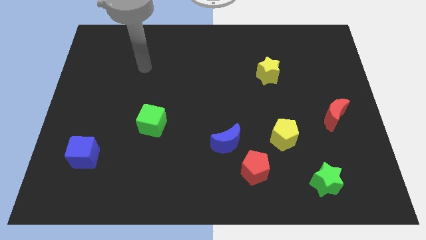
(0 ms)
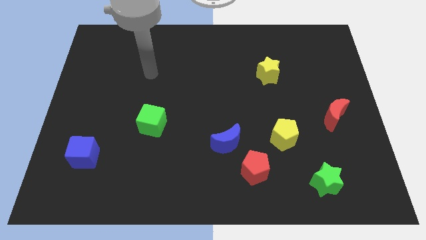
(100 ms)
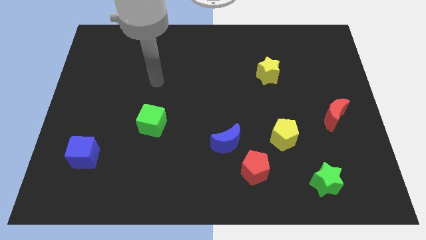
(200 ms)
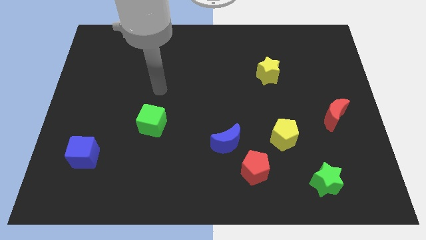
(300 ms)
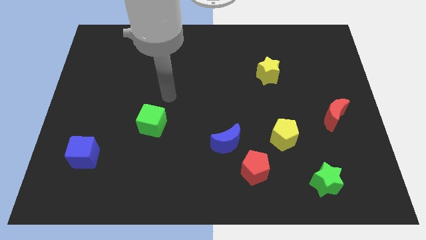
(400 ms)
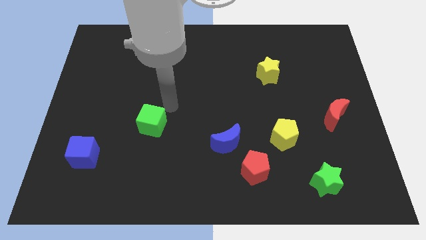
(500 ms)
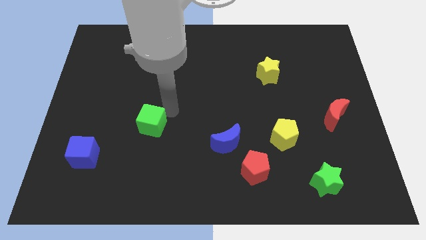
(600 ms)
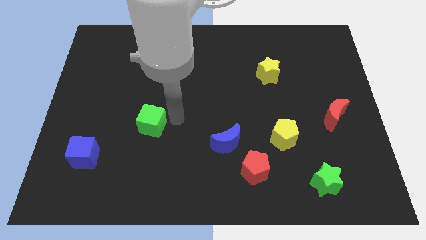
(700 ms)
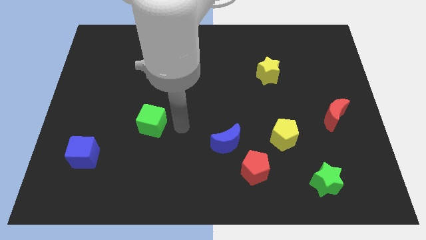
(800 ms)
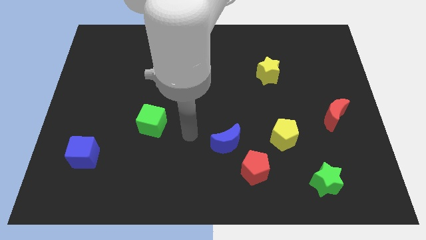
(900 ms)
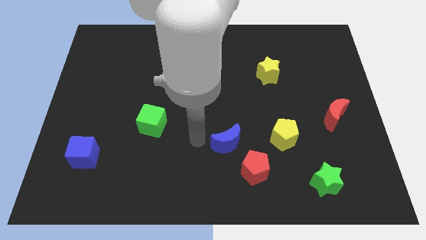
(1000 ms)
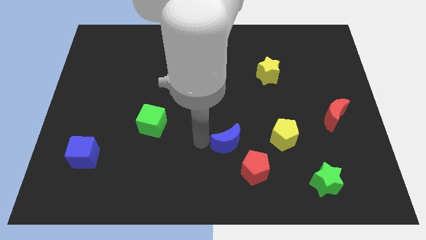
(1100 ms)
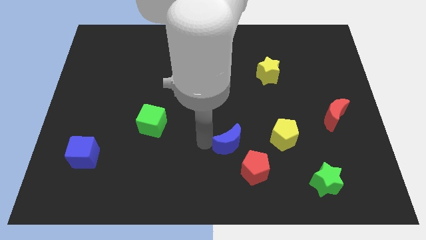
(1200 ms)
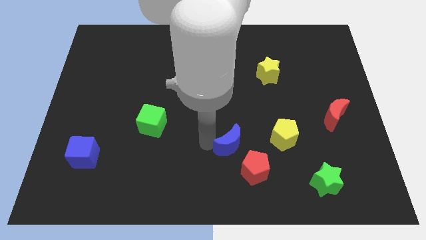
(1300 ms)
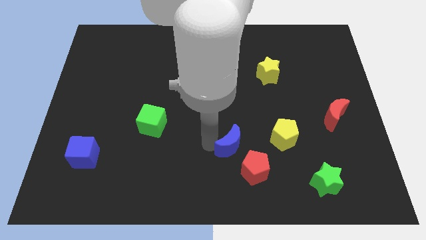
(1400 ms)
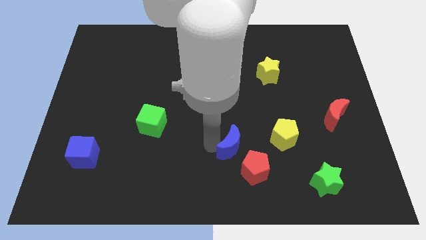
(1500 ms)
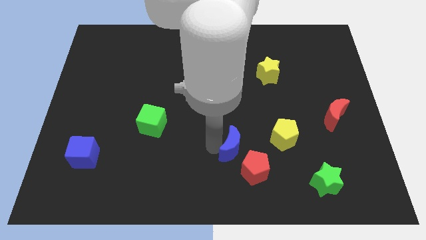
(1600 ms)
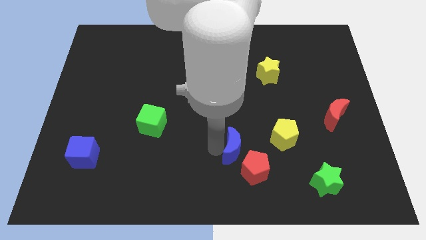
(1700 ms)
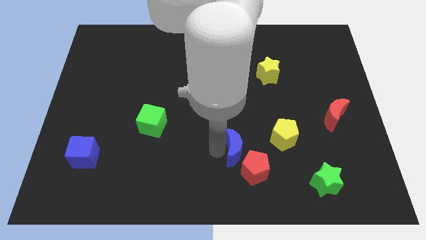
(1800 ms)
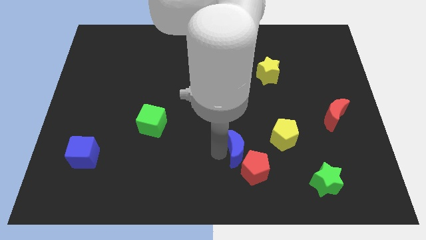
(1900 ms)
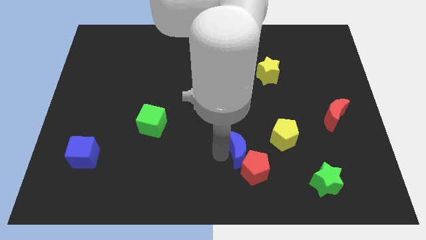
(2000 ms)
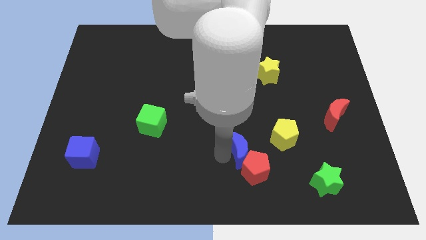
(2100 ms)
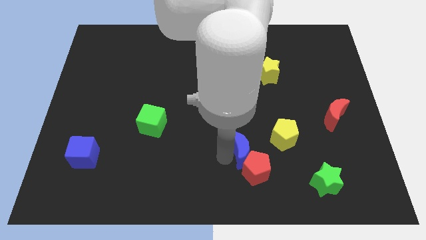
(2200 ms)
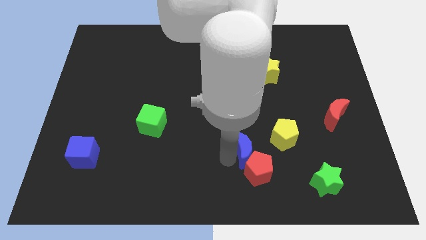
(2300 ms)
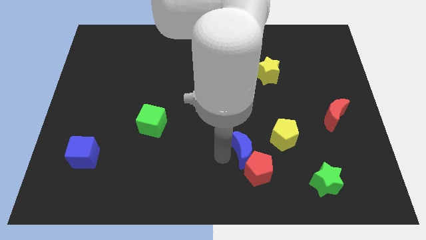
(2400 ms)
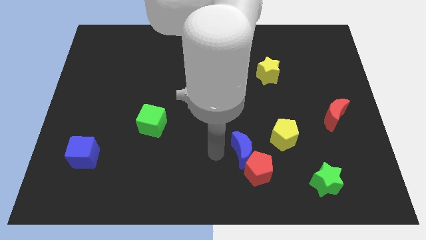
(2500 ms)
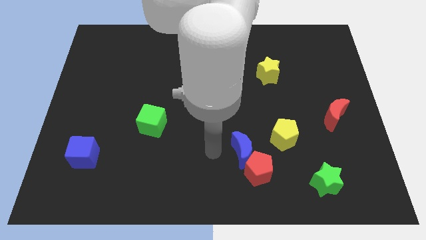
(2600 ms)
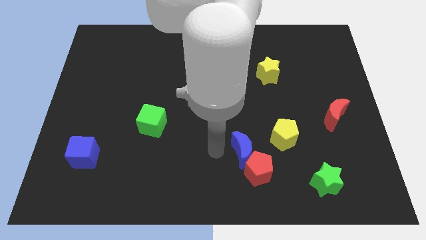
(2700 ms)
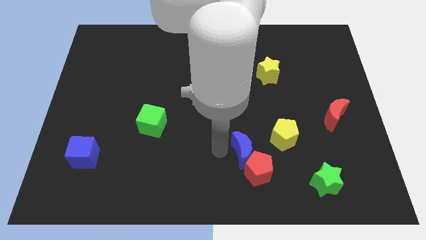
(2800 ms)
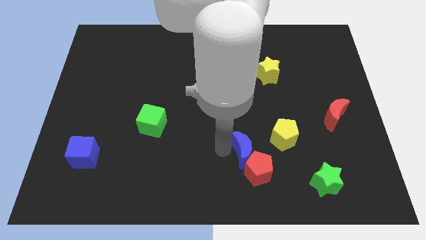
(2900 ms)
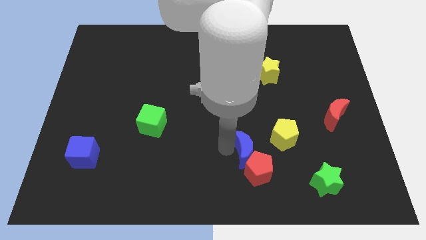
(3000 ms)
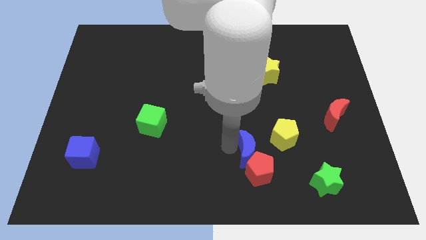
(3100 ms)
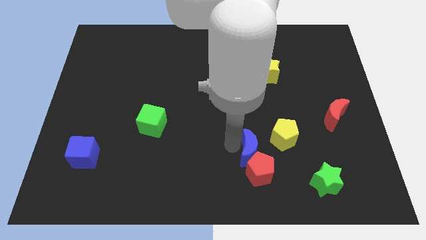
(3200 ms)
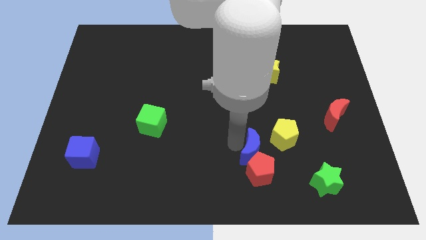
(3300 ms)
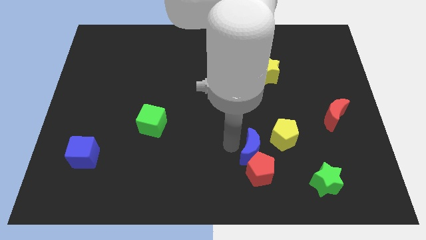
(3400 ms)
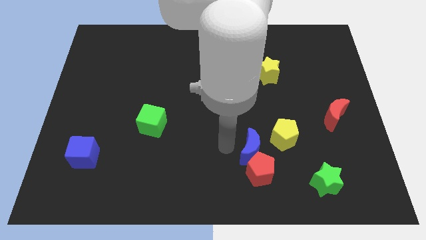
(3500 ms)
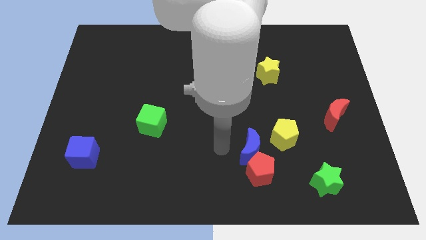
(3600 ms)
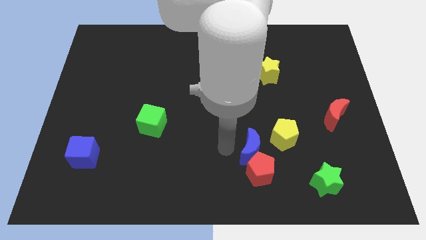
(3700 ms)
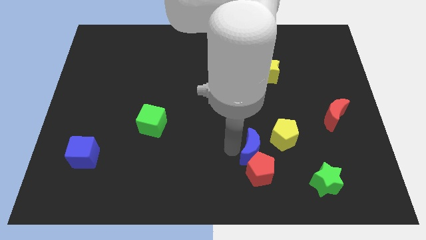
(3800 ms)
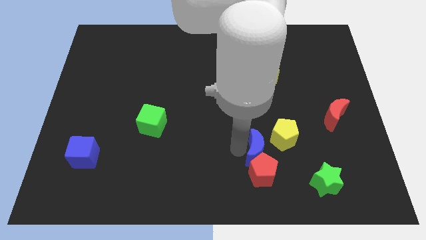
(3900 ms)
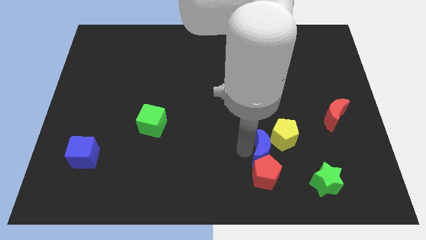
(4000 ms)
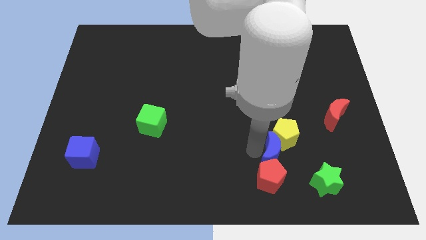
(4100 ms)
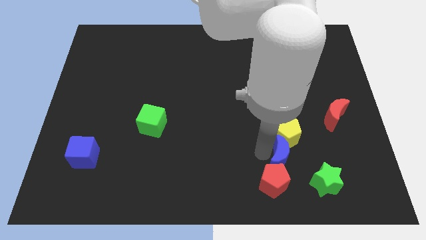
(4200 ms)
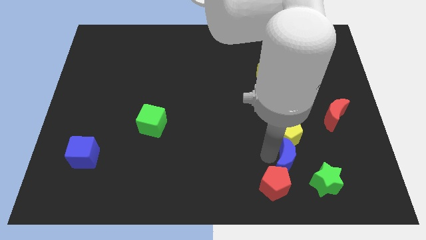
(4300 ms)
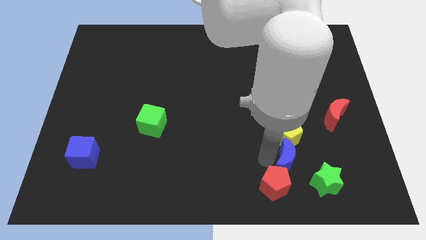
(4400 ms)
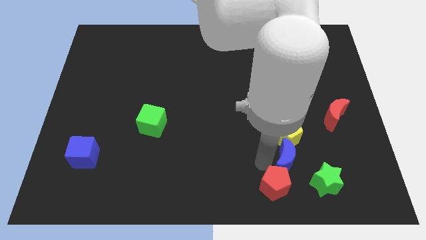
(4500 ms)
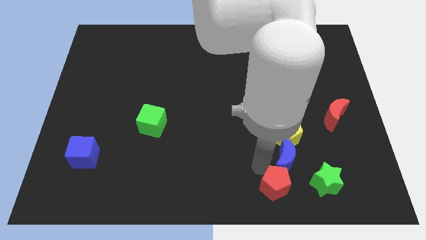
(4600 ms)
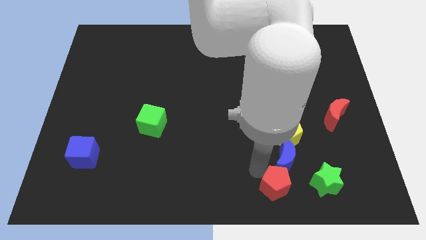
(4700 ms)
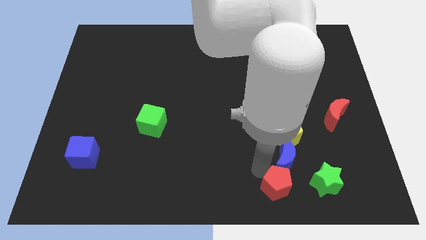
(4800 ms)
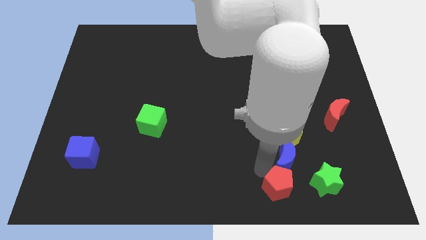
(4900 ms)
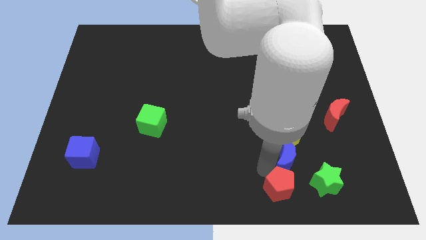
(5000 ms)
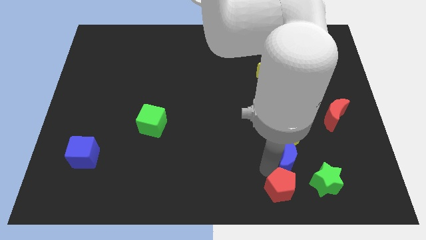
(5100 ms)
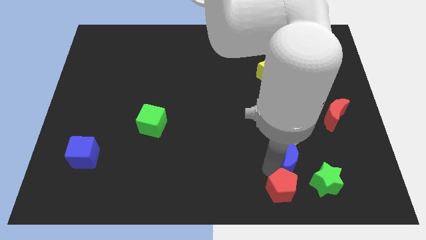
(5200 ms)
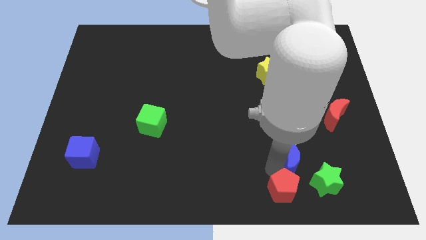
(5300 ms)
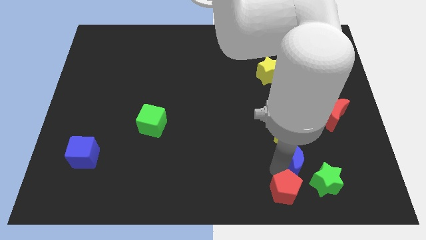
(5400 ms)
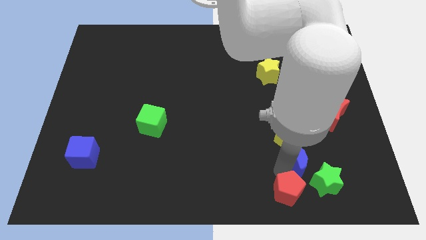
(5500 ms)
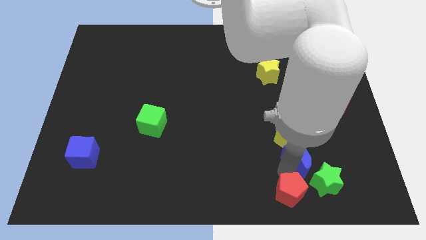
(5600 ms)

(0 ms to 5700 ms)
put the blue moon to the top side of the green star
